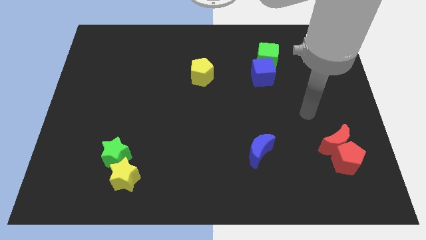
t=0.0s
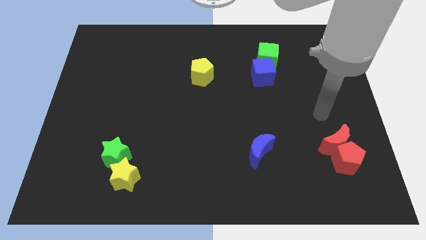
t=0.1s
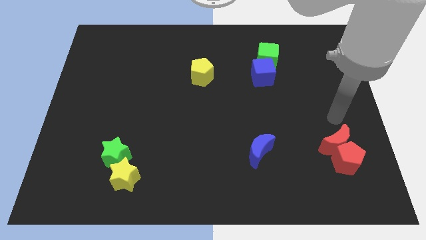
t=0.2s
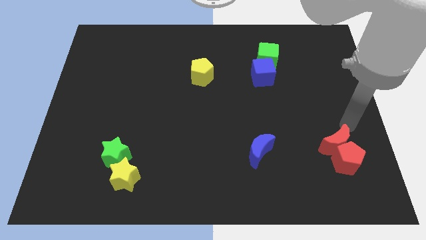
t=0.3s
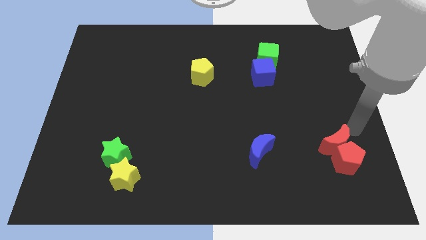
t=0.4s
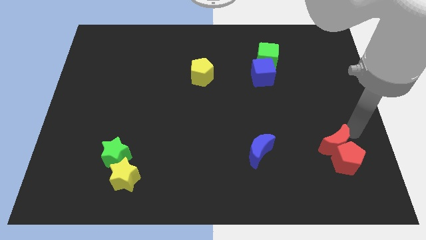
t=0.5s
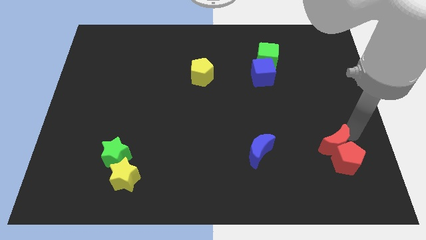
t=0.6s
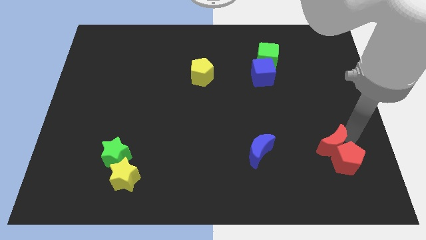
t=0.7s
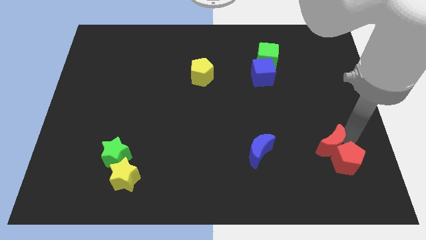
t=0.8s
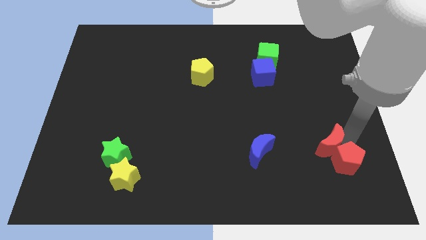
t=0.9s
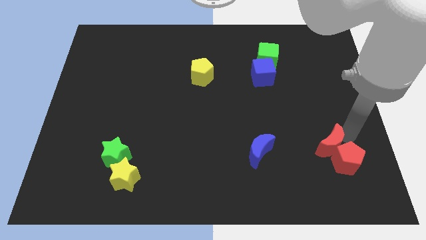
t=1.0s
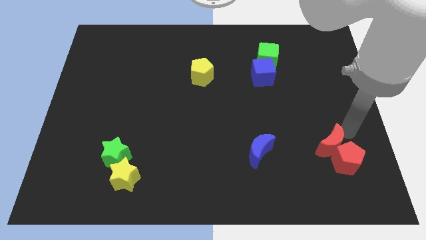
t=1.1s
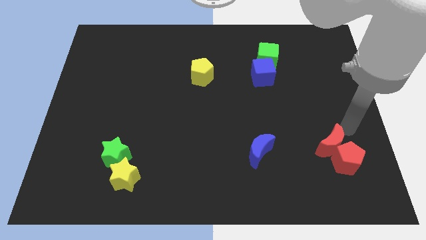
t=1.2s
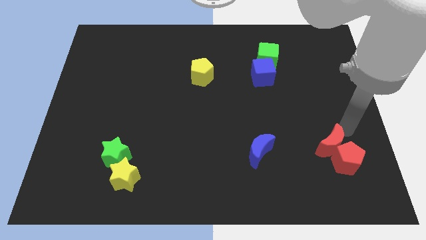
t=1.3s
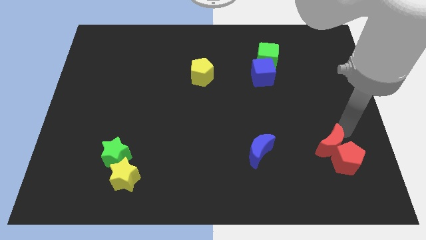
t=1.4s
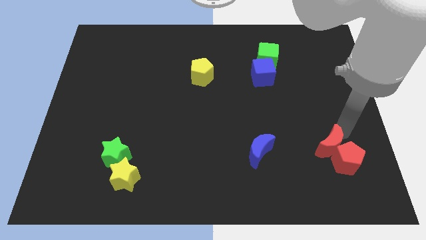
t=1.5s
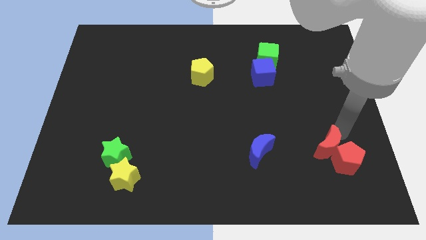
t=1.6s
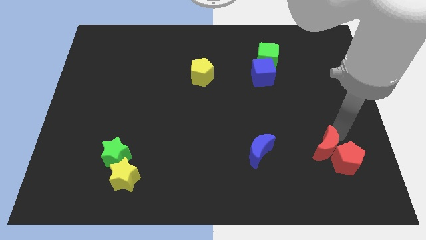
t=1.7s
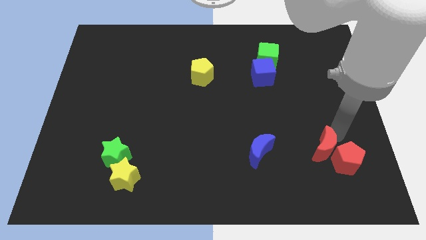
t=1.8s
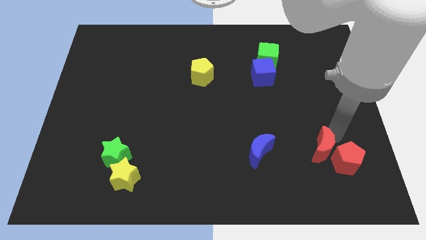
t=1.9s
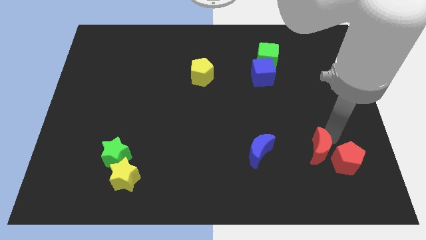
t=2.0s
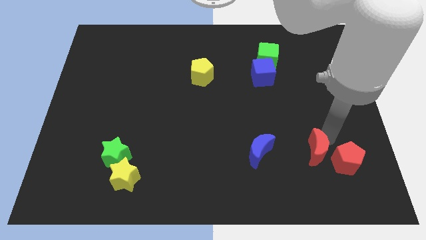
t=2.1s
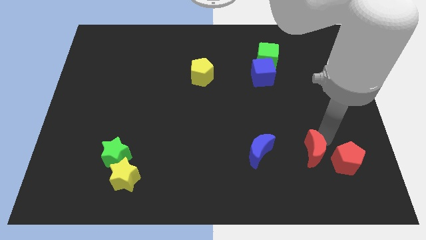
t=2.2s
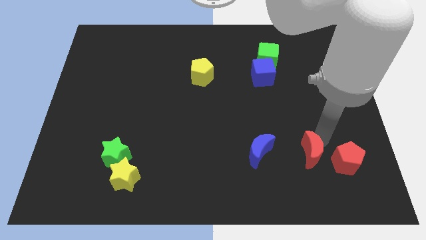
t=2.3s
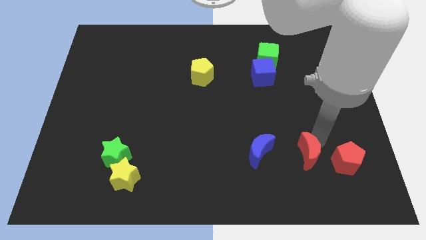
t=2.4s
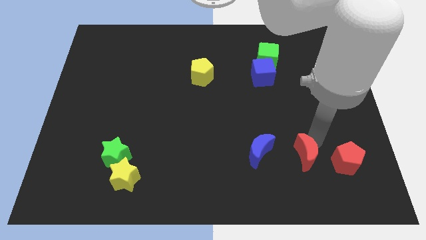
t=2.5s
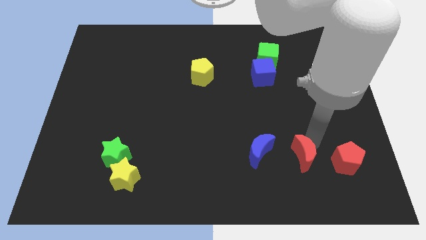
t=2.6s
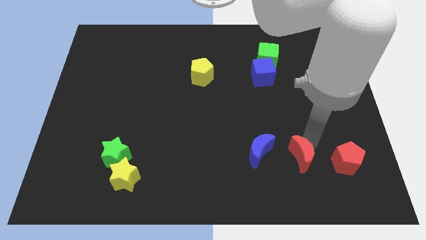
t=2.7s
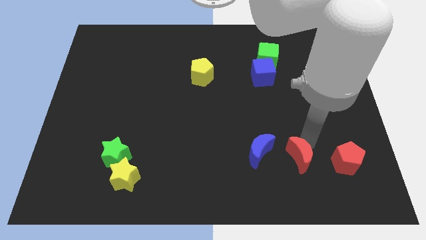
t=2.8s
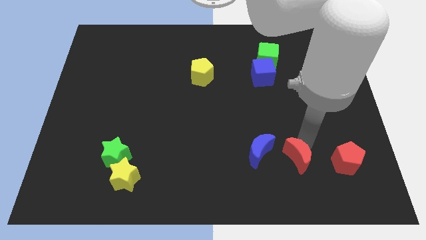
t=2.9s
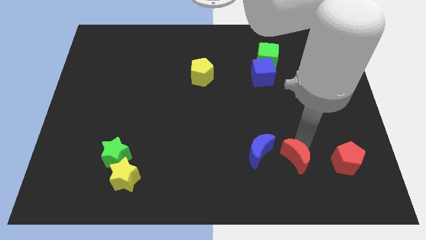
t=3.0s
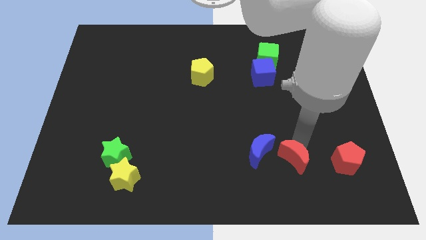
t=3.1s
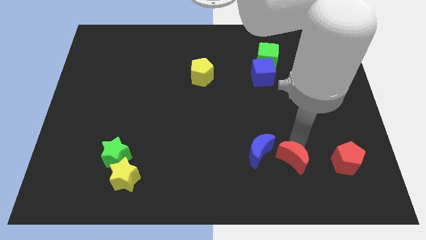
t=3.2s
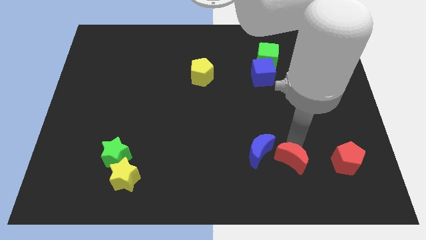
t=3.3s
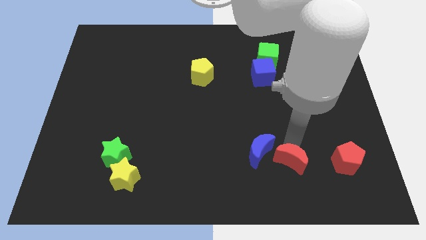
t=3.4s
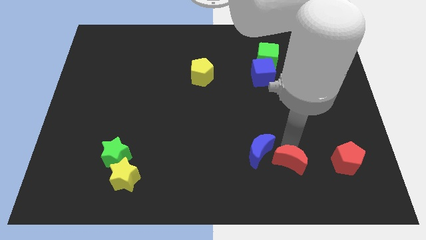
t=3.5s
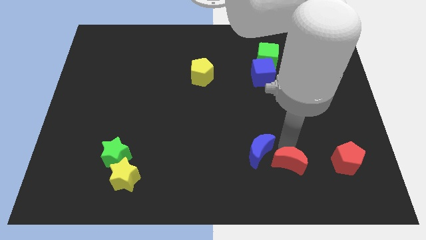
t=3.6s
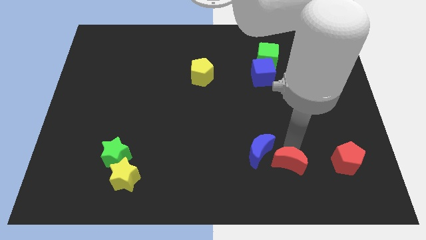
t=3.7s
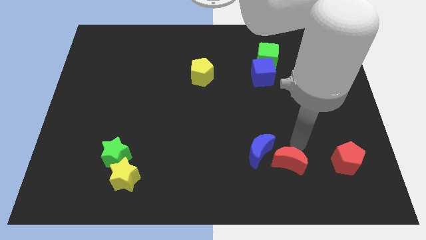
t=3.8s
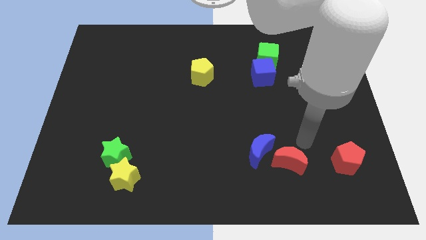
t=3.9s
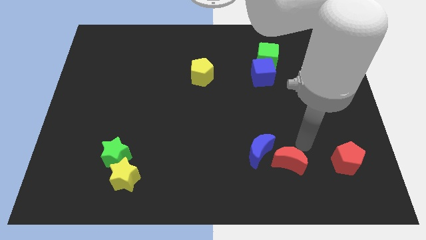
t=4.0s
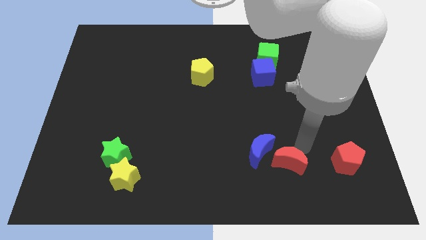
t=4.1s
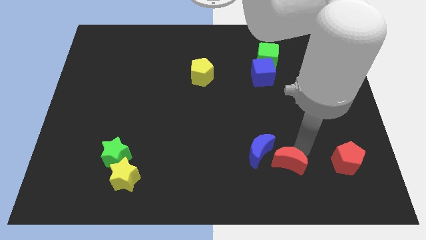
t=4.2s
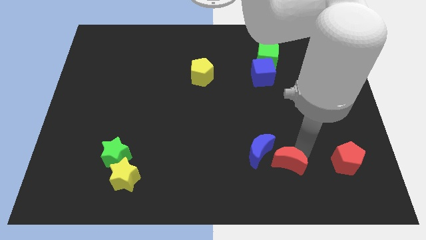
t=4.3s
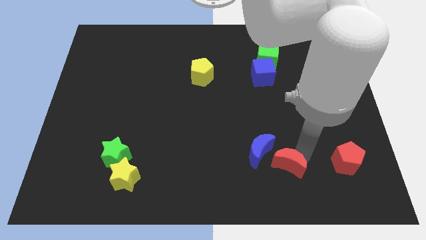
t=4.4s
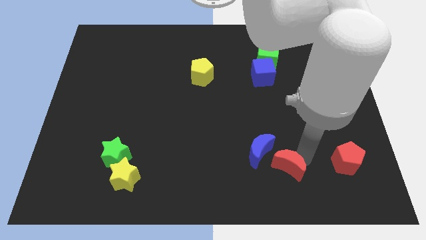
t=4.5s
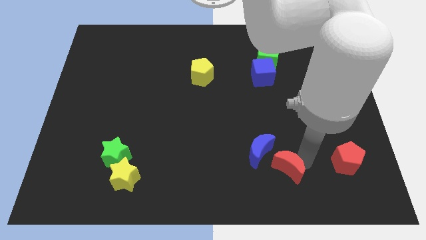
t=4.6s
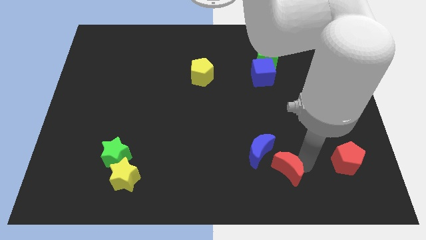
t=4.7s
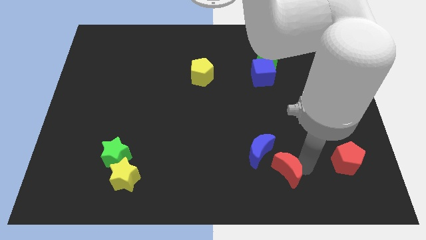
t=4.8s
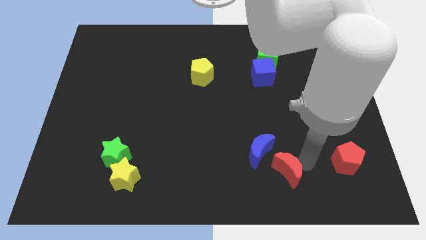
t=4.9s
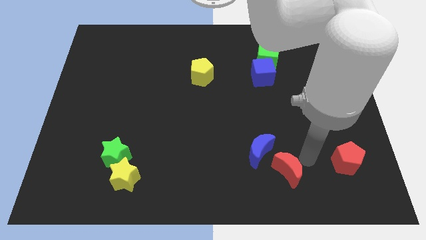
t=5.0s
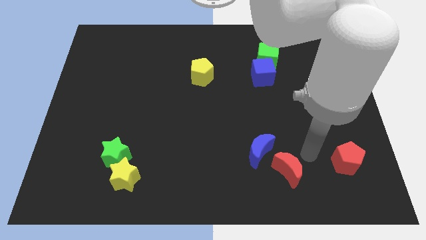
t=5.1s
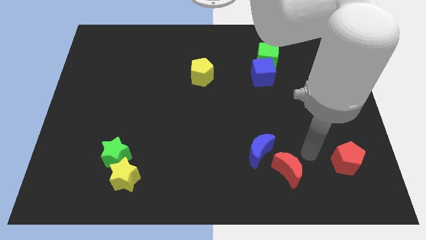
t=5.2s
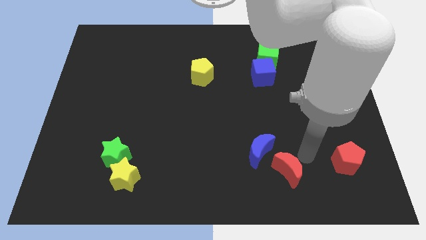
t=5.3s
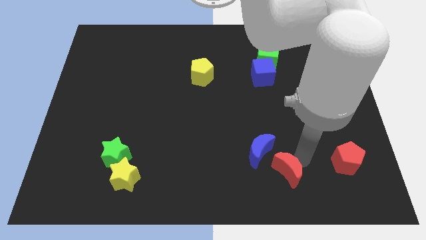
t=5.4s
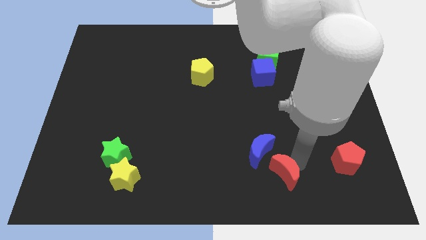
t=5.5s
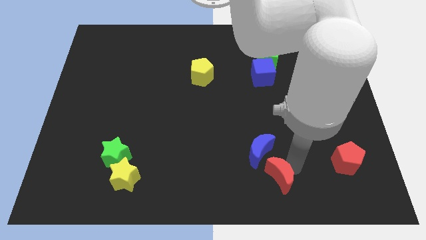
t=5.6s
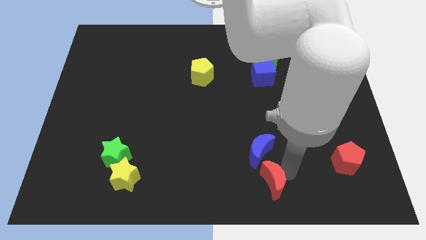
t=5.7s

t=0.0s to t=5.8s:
move the red moon to the bottom
